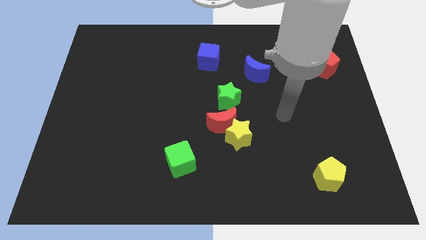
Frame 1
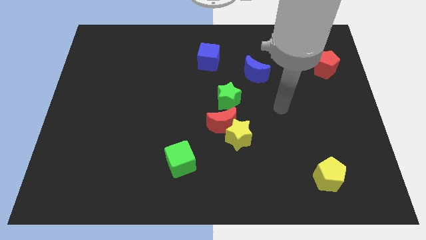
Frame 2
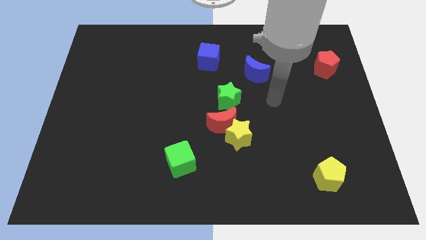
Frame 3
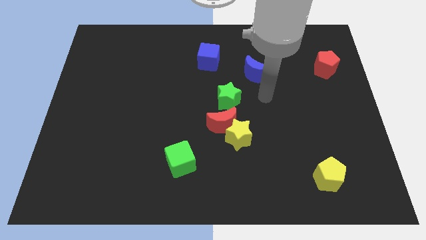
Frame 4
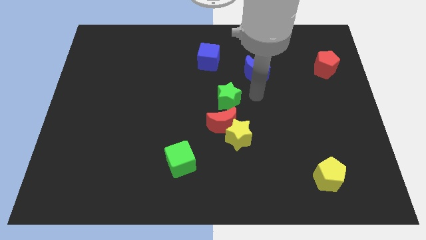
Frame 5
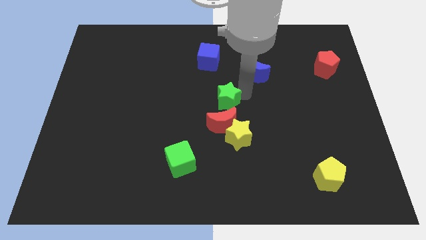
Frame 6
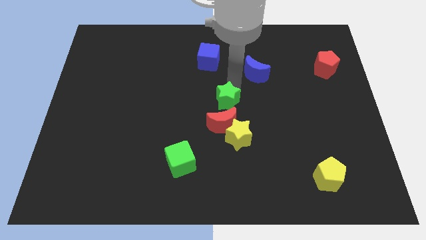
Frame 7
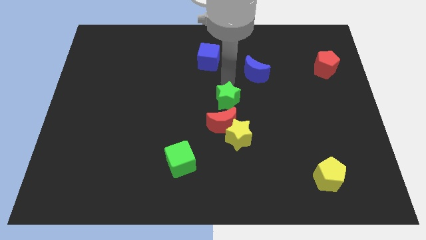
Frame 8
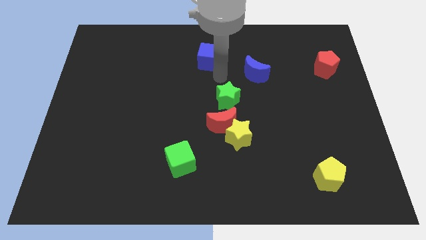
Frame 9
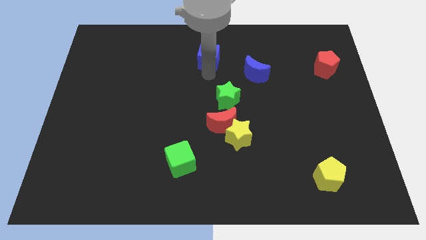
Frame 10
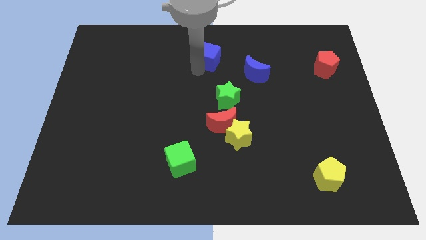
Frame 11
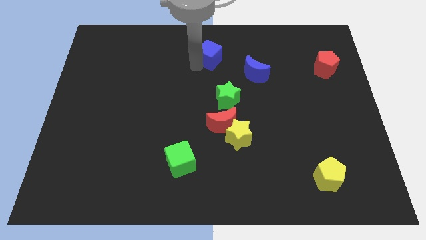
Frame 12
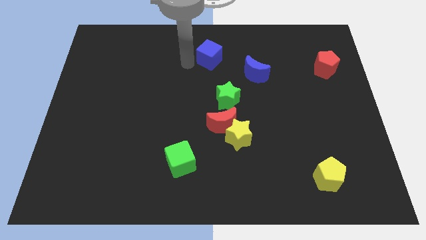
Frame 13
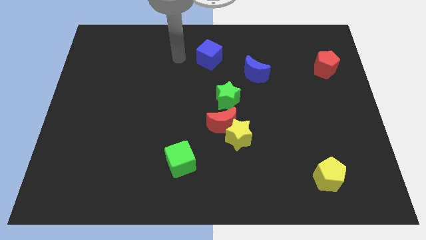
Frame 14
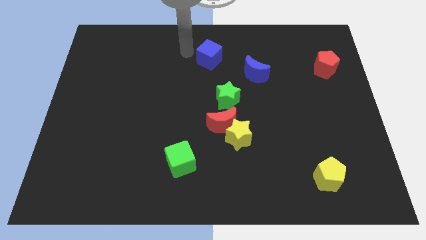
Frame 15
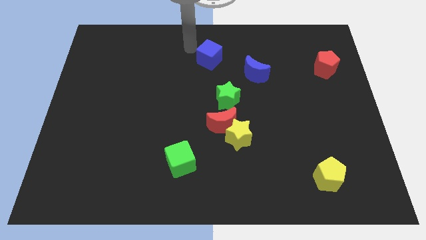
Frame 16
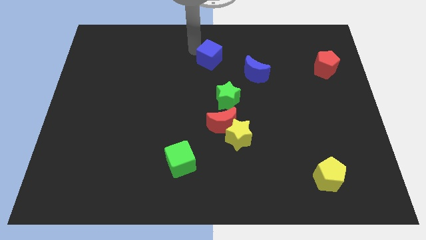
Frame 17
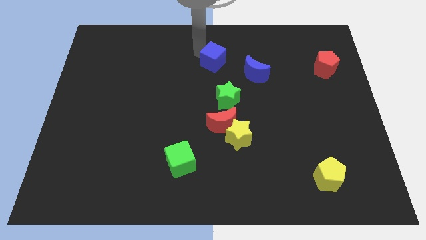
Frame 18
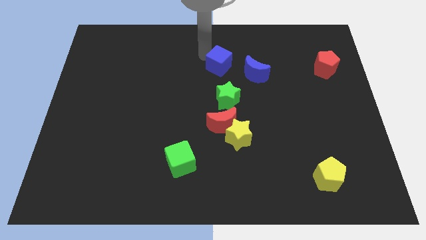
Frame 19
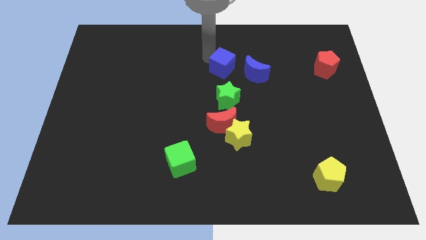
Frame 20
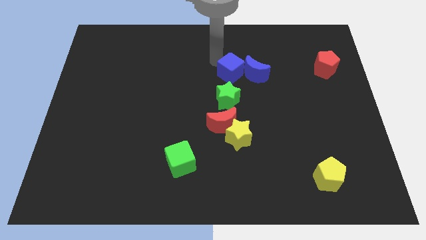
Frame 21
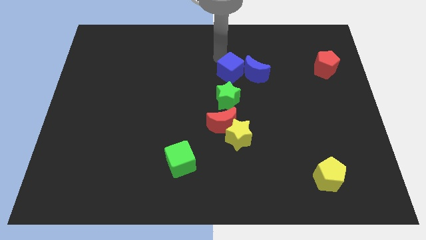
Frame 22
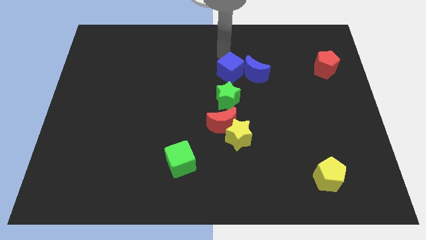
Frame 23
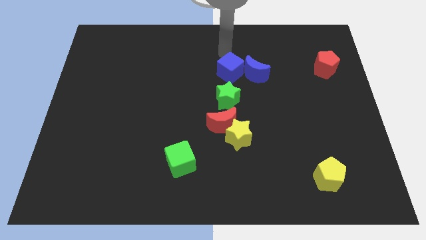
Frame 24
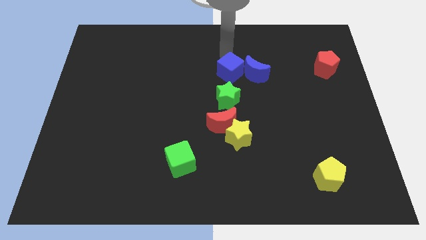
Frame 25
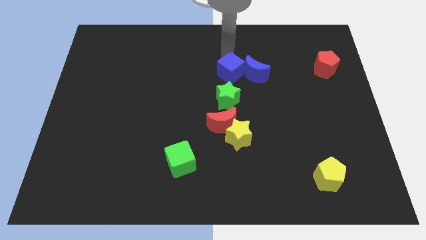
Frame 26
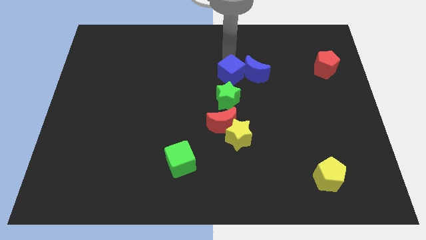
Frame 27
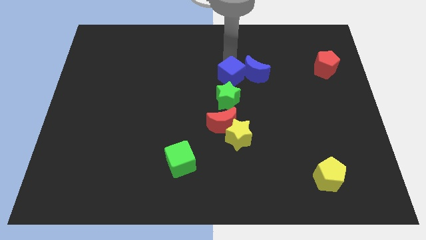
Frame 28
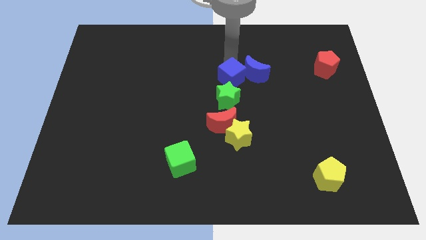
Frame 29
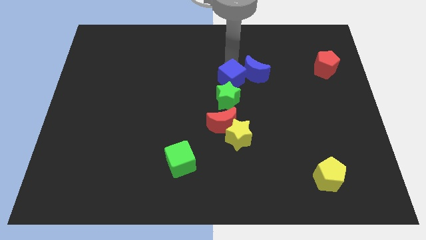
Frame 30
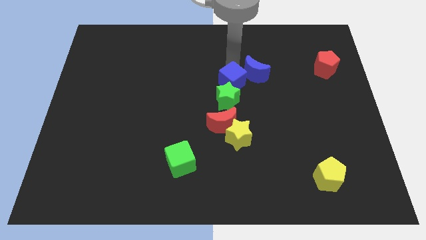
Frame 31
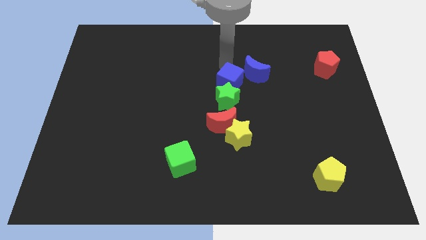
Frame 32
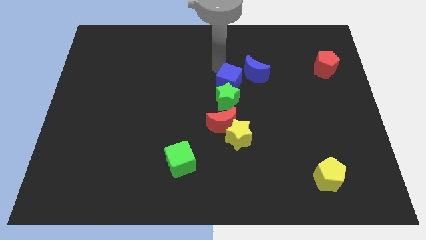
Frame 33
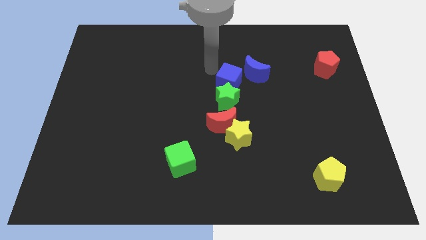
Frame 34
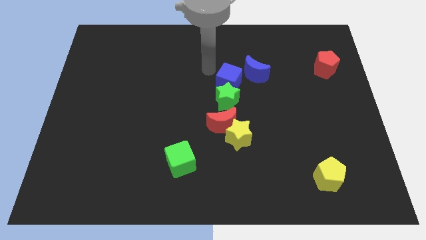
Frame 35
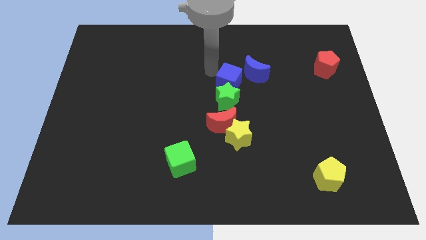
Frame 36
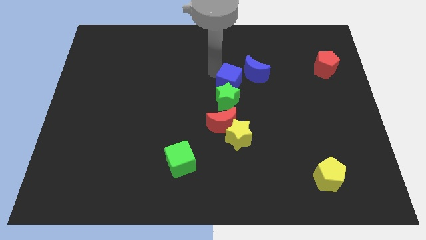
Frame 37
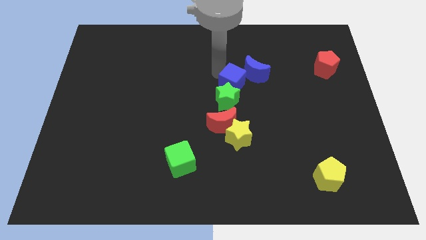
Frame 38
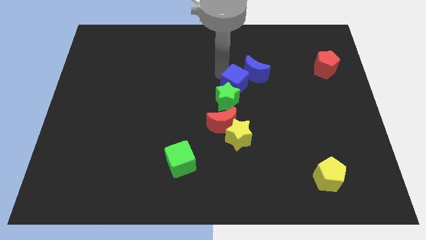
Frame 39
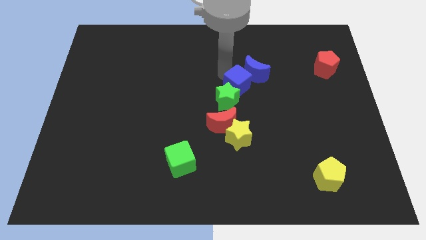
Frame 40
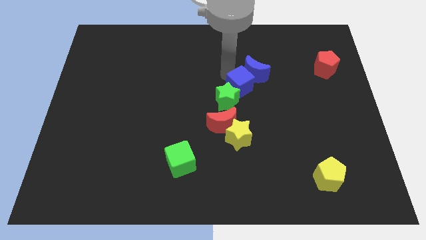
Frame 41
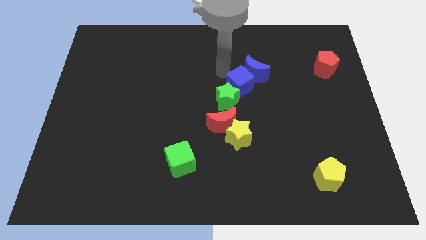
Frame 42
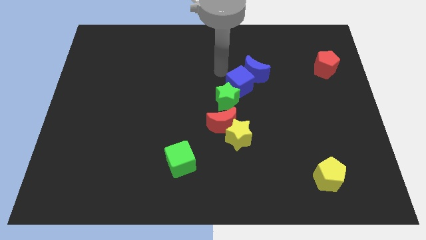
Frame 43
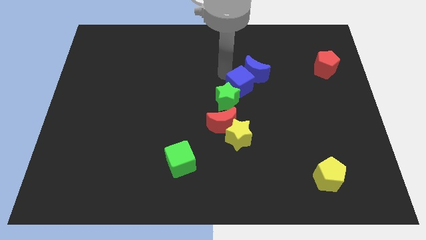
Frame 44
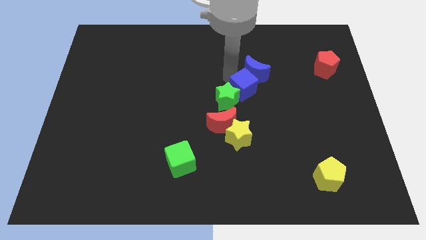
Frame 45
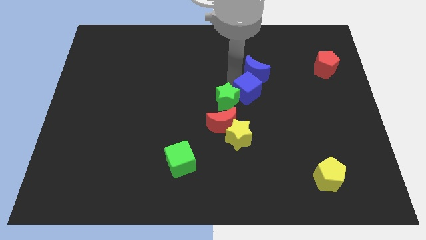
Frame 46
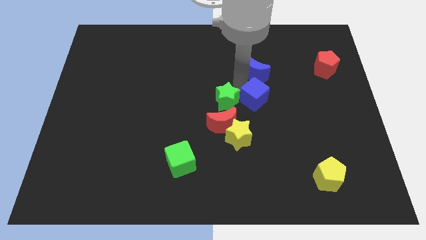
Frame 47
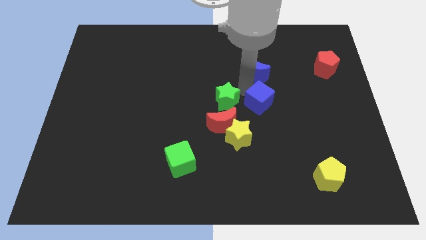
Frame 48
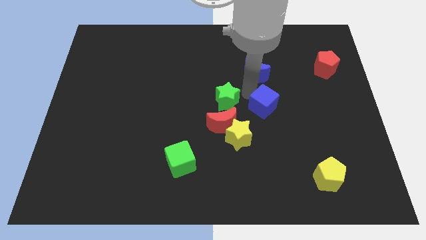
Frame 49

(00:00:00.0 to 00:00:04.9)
slide the blue cube downwards and then to the right

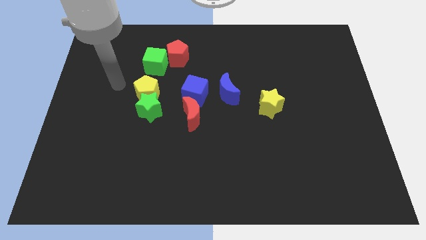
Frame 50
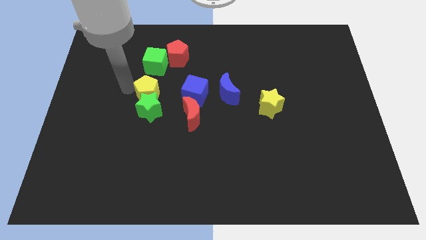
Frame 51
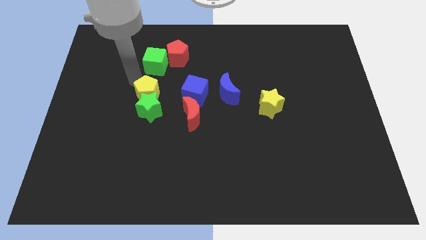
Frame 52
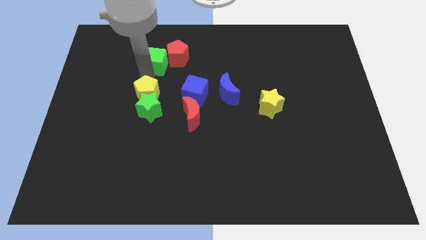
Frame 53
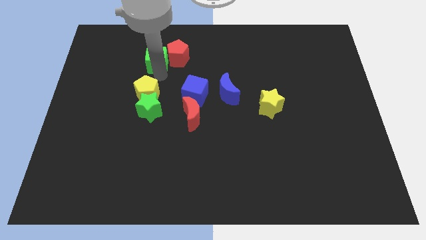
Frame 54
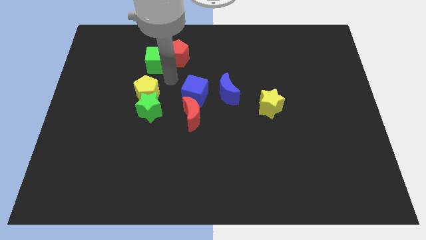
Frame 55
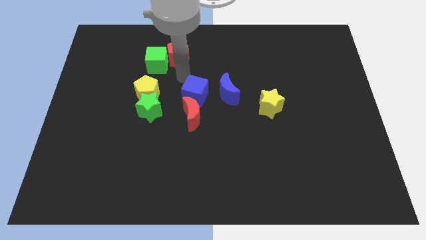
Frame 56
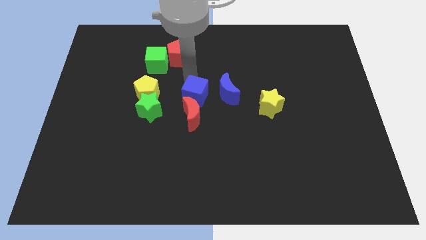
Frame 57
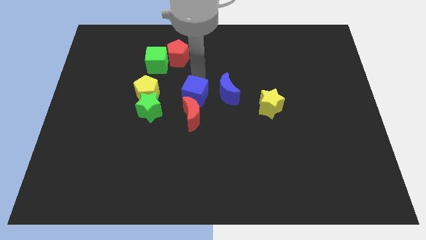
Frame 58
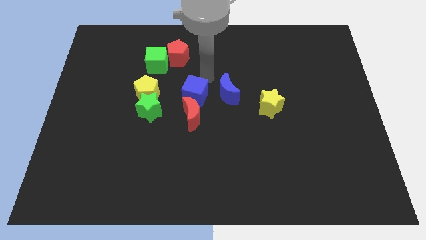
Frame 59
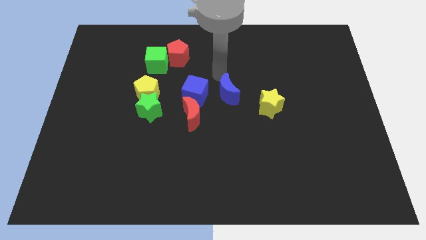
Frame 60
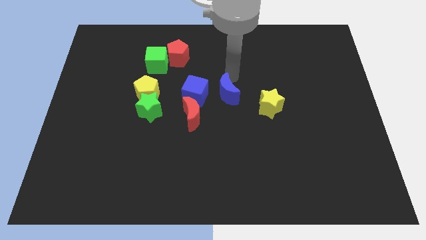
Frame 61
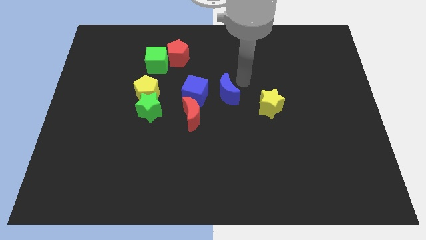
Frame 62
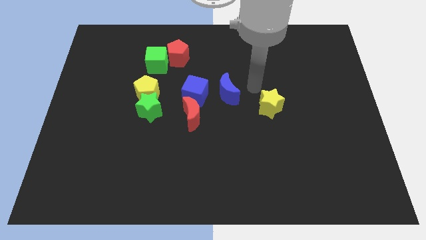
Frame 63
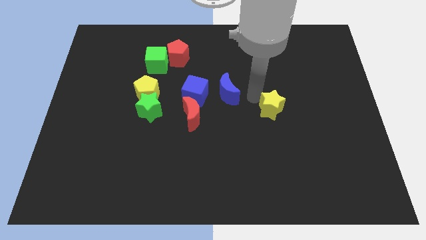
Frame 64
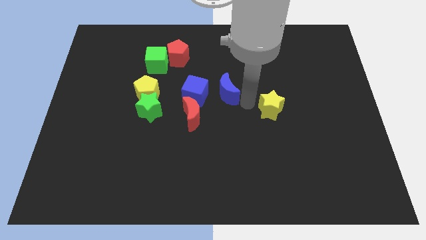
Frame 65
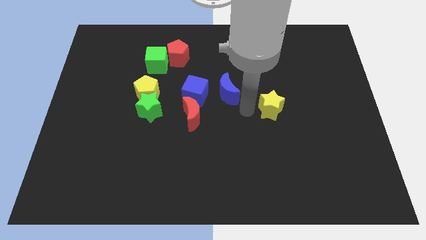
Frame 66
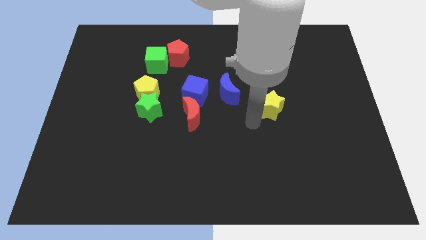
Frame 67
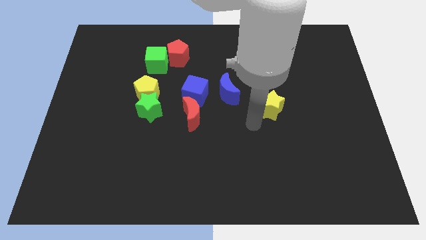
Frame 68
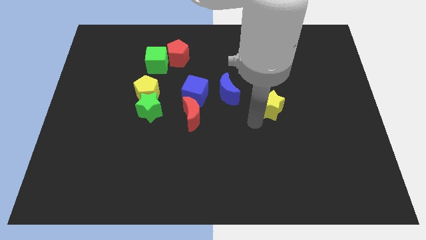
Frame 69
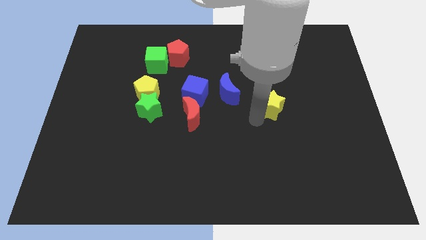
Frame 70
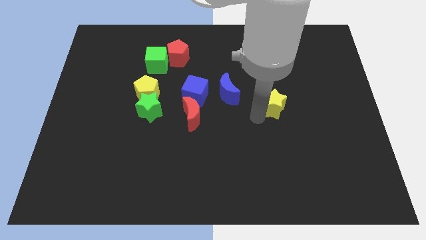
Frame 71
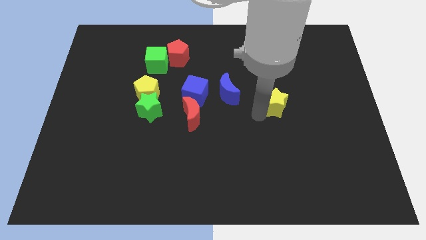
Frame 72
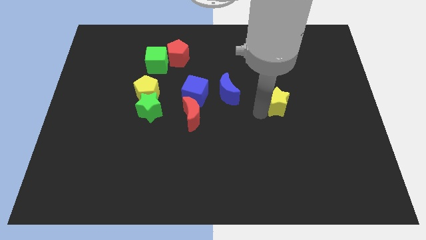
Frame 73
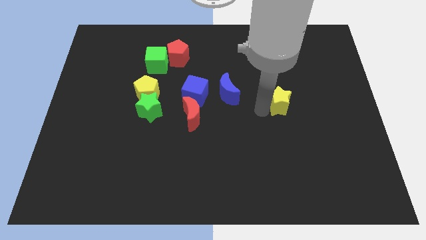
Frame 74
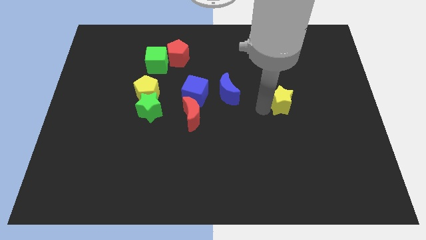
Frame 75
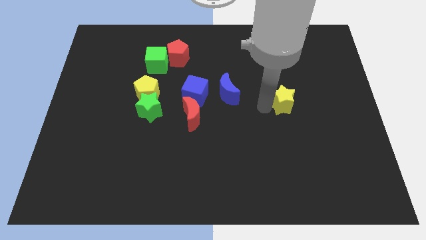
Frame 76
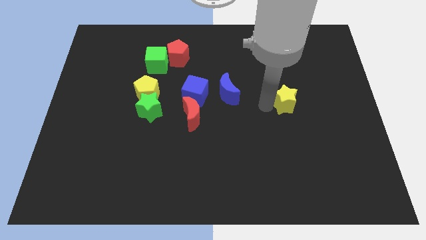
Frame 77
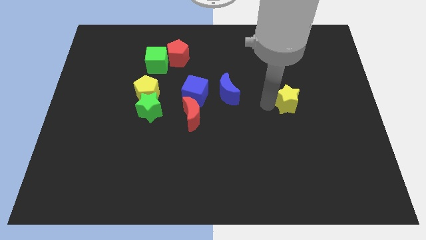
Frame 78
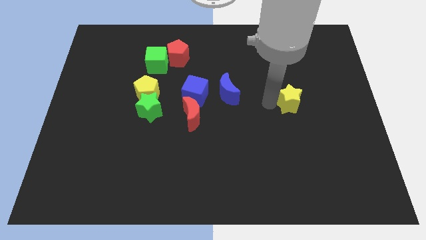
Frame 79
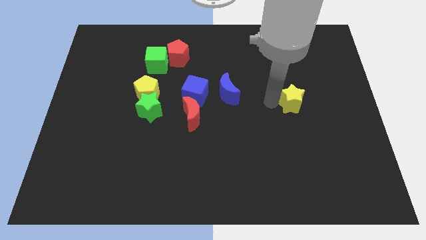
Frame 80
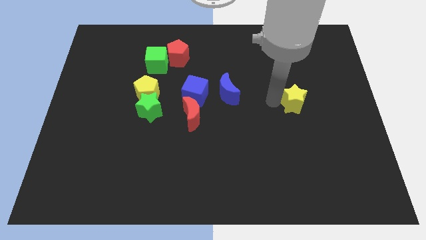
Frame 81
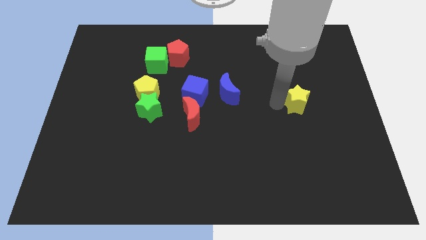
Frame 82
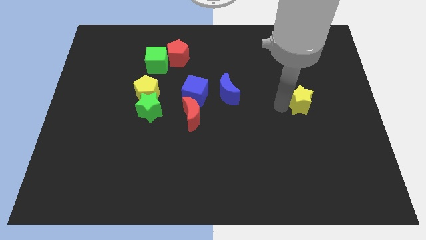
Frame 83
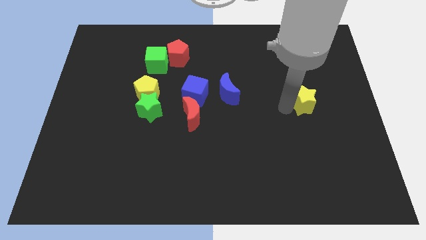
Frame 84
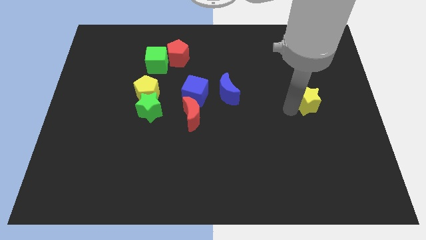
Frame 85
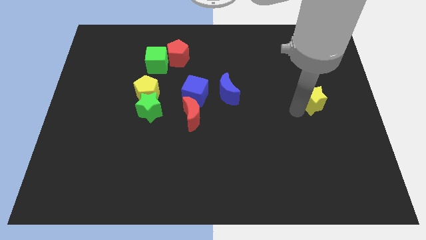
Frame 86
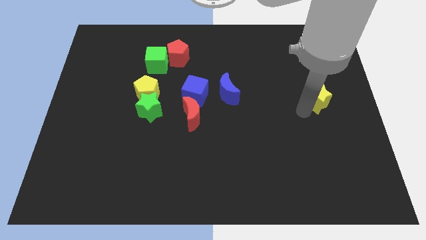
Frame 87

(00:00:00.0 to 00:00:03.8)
slightly push the yellow star up and right
